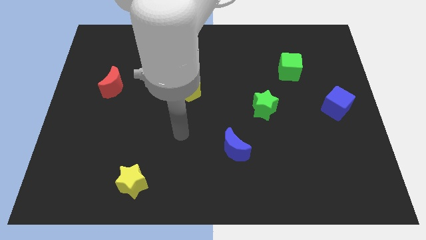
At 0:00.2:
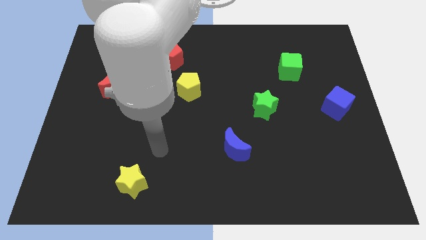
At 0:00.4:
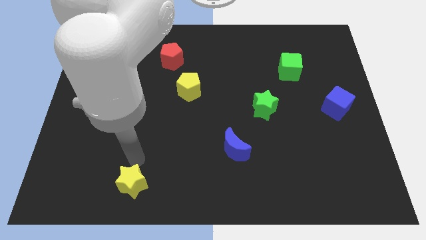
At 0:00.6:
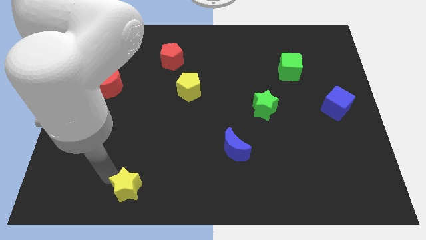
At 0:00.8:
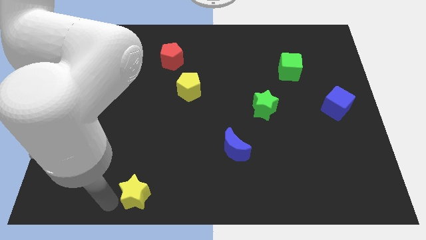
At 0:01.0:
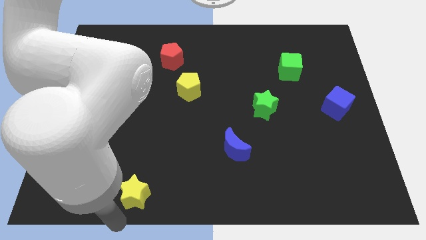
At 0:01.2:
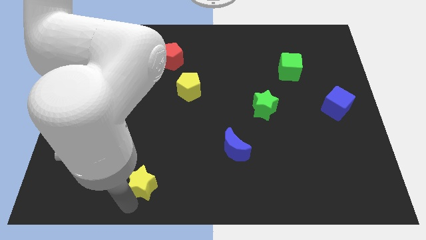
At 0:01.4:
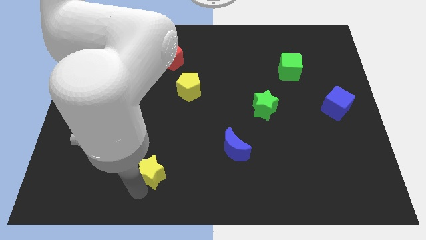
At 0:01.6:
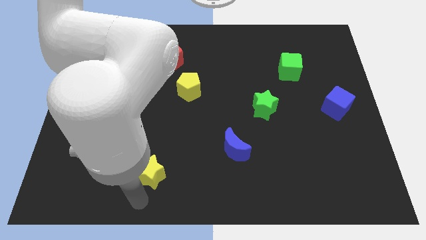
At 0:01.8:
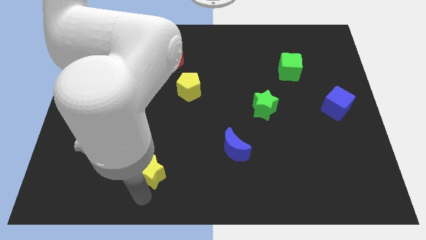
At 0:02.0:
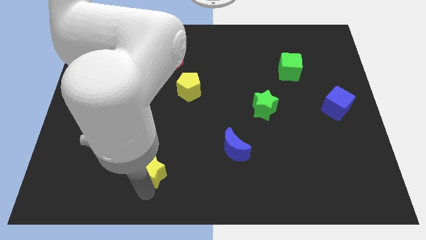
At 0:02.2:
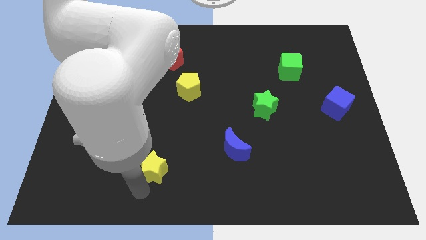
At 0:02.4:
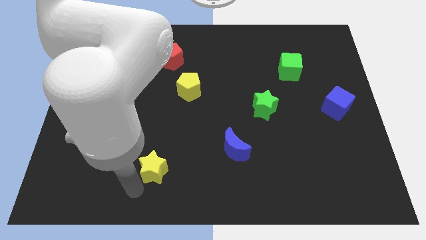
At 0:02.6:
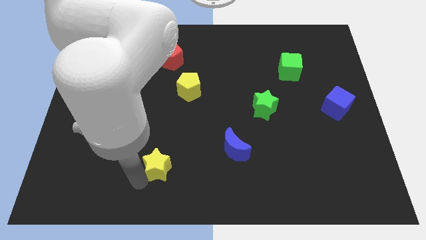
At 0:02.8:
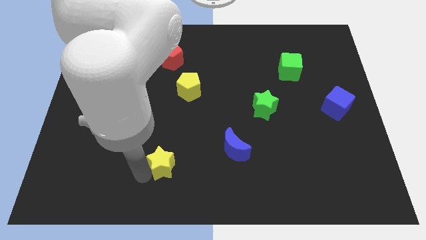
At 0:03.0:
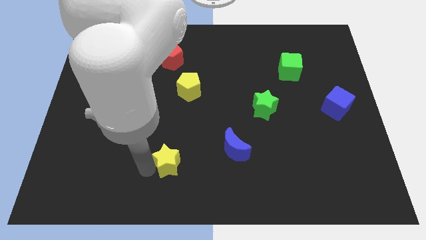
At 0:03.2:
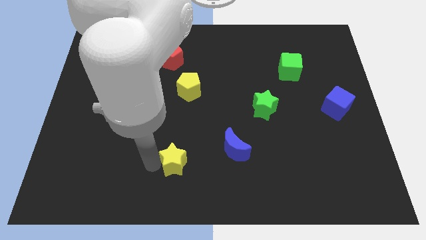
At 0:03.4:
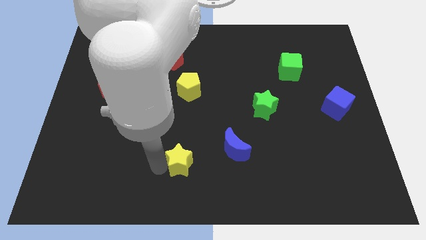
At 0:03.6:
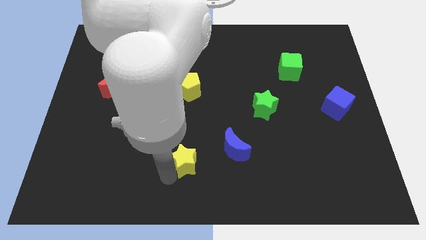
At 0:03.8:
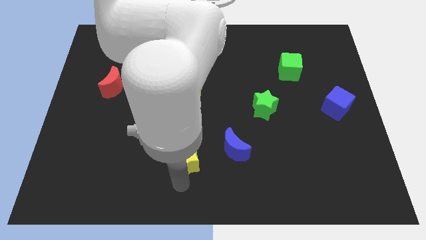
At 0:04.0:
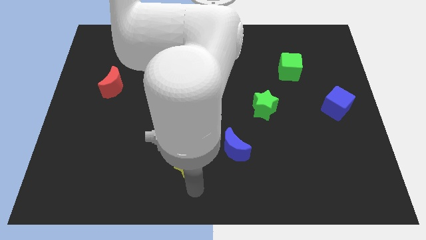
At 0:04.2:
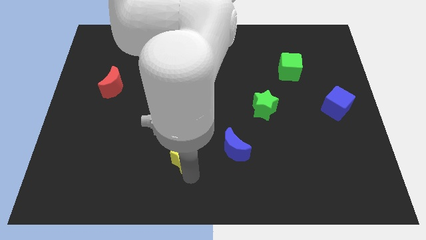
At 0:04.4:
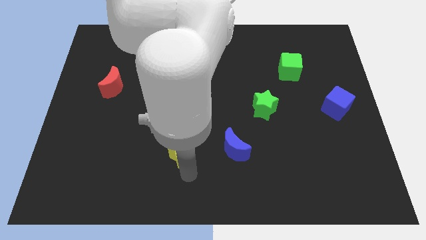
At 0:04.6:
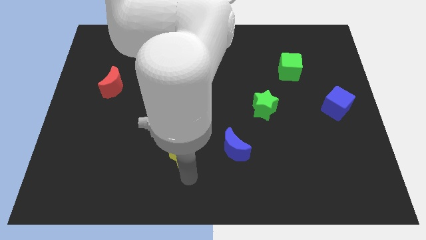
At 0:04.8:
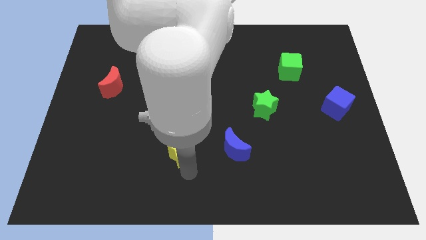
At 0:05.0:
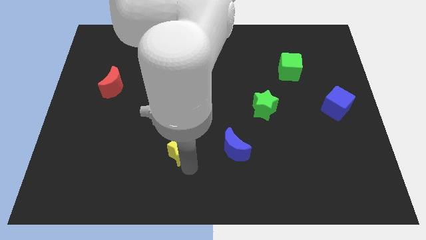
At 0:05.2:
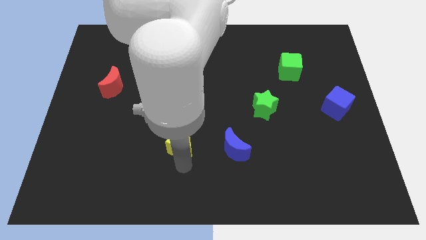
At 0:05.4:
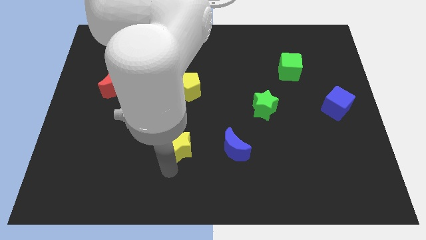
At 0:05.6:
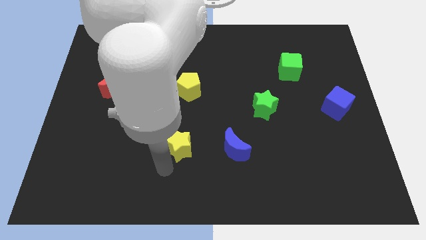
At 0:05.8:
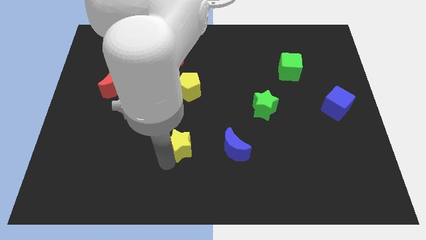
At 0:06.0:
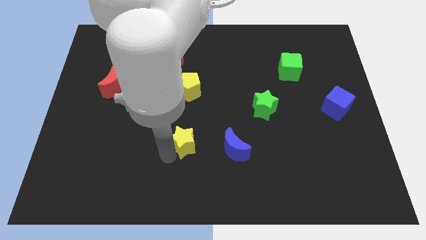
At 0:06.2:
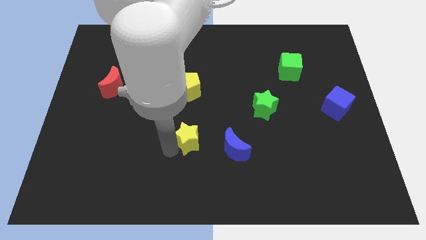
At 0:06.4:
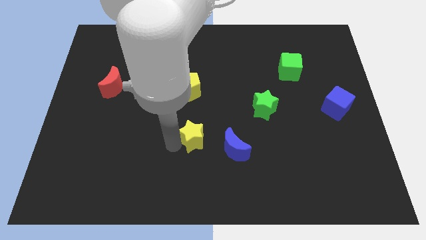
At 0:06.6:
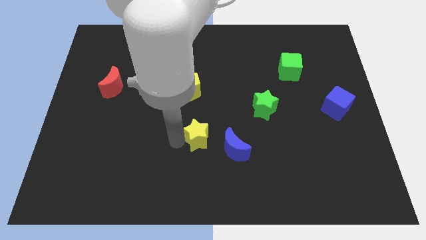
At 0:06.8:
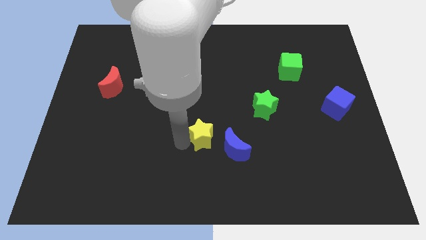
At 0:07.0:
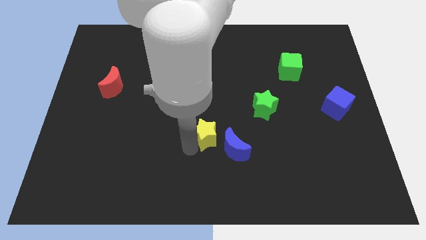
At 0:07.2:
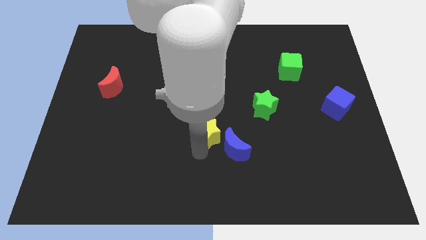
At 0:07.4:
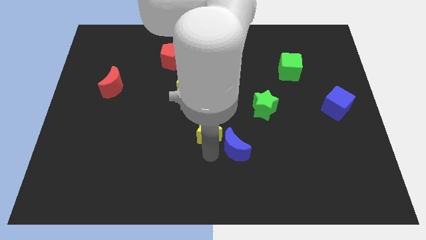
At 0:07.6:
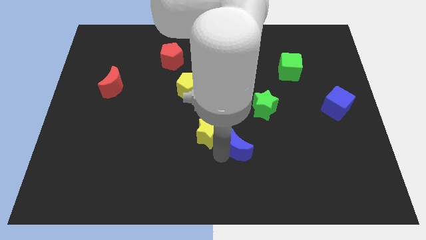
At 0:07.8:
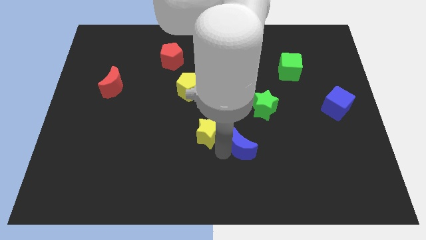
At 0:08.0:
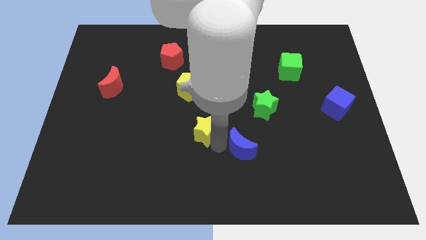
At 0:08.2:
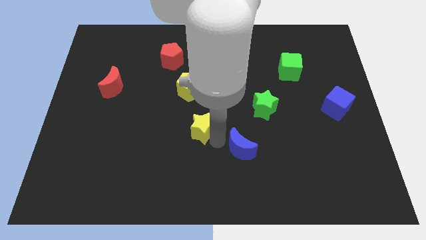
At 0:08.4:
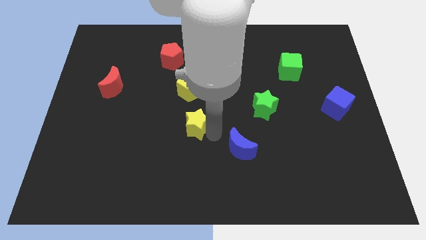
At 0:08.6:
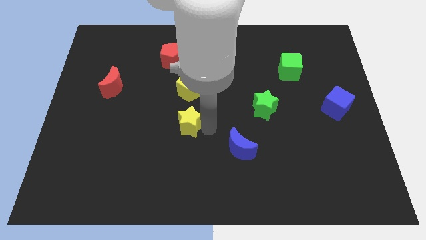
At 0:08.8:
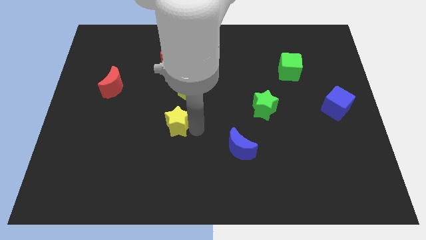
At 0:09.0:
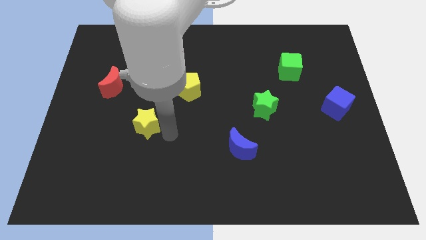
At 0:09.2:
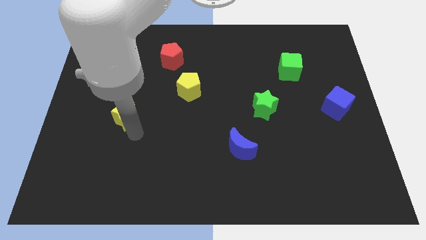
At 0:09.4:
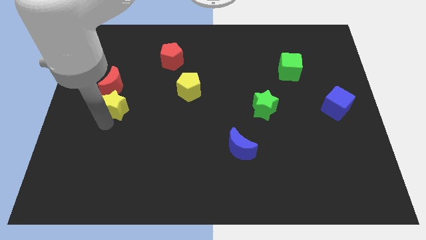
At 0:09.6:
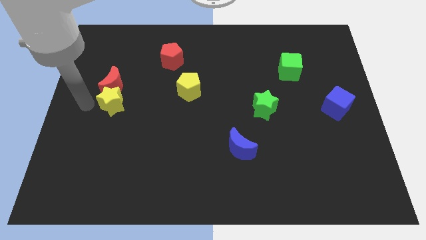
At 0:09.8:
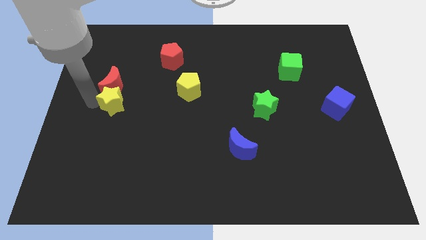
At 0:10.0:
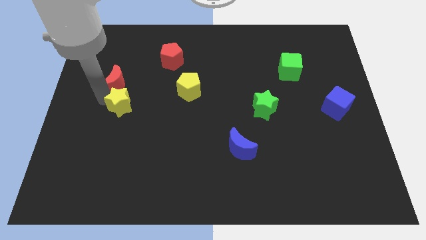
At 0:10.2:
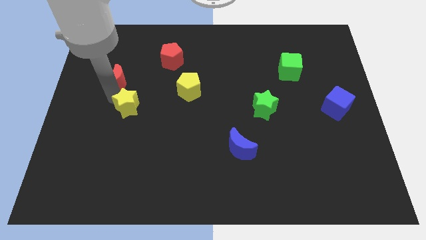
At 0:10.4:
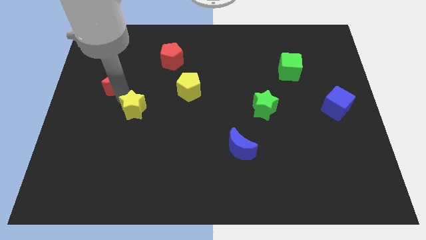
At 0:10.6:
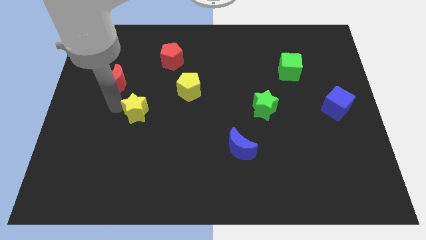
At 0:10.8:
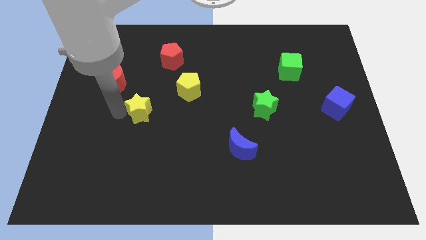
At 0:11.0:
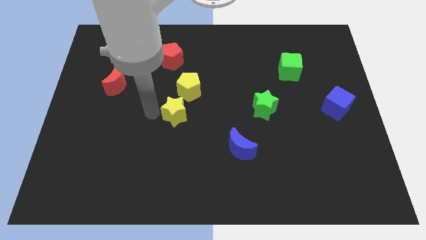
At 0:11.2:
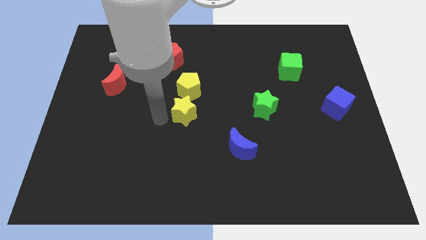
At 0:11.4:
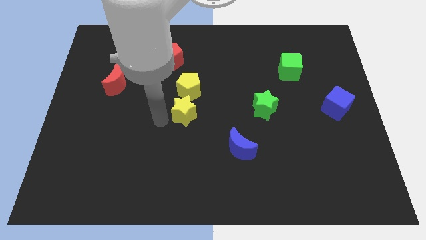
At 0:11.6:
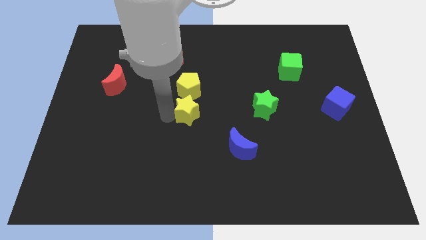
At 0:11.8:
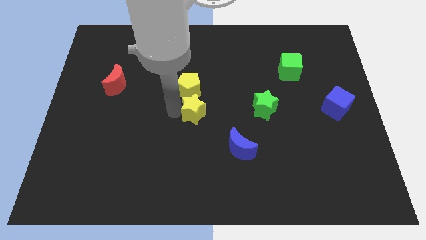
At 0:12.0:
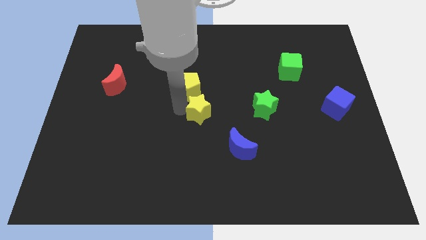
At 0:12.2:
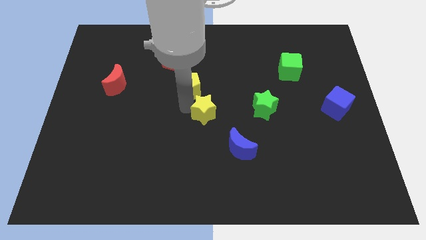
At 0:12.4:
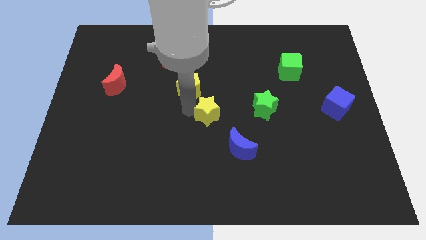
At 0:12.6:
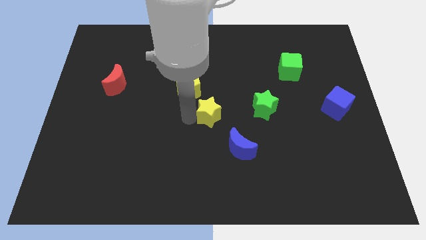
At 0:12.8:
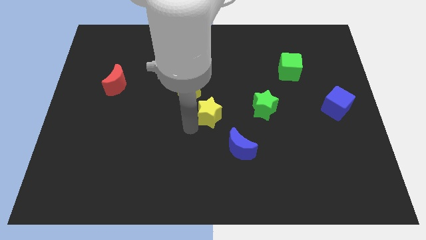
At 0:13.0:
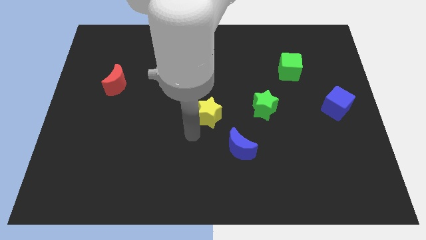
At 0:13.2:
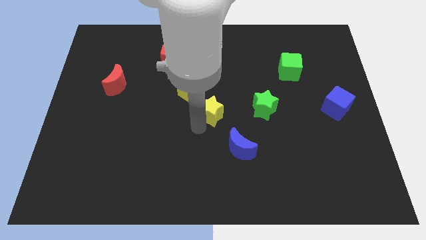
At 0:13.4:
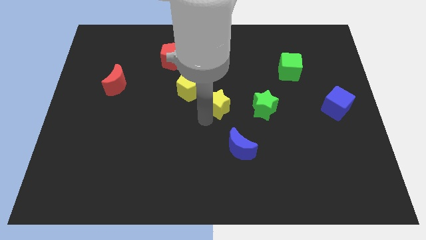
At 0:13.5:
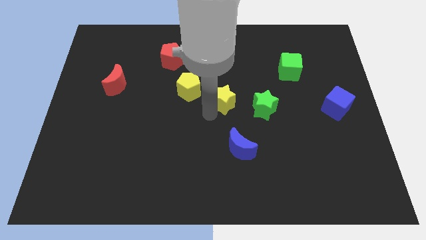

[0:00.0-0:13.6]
move the yellow star just right of the yellow pentagon

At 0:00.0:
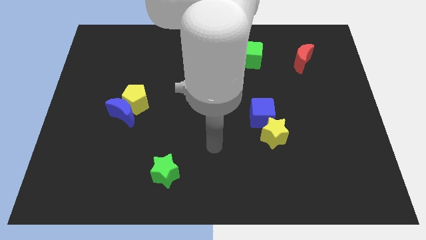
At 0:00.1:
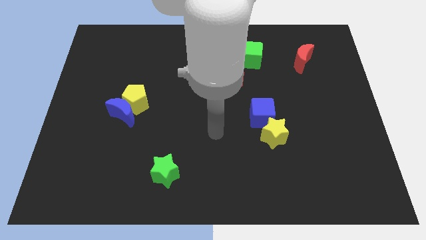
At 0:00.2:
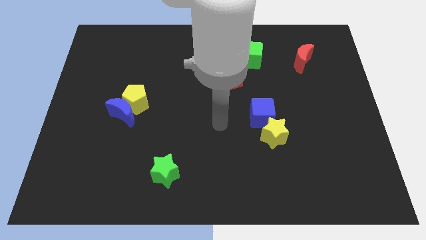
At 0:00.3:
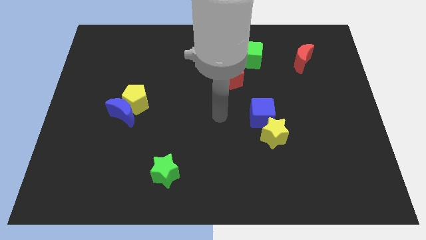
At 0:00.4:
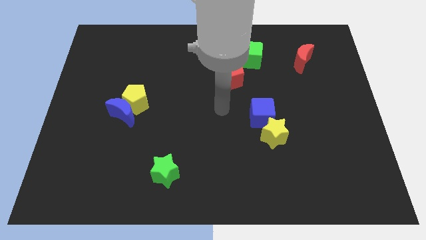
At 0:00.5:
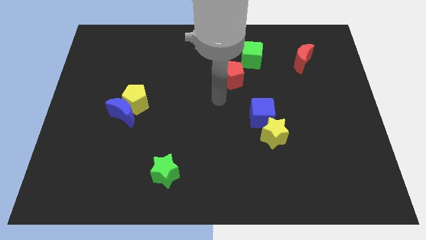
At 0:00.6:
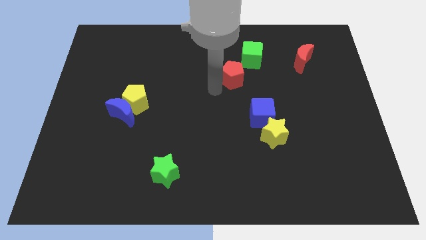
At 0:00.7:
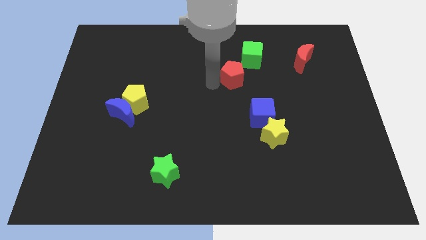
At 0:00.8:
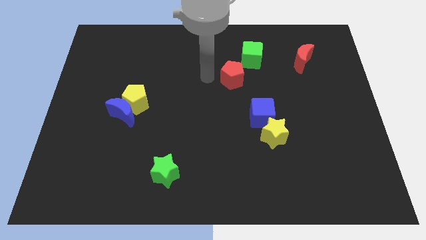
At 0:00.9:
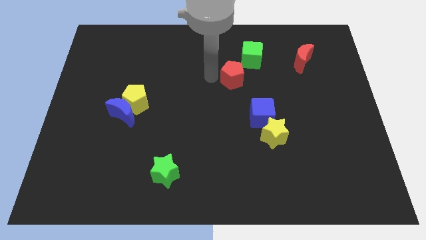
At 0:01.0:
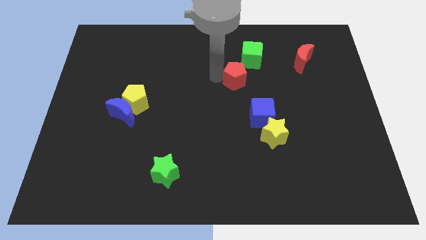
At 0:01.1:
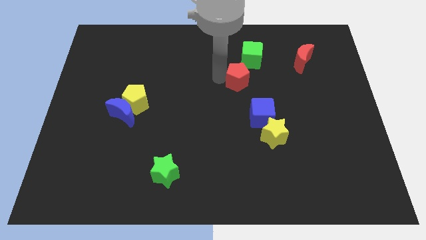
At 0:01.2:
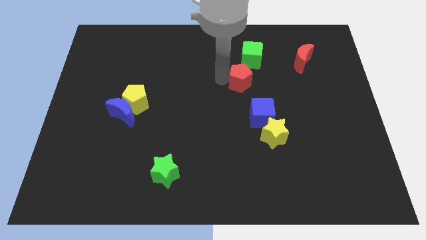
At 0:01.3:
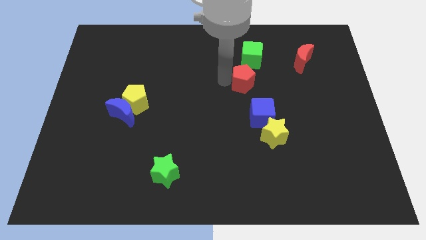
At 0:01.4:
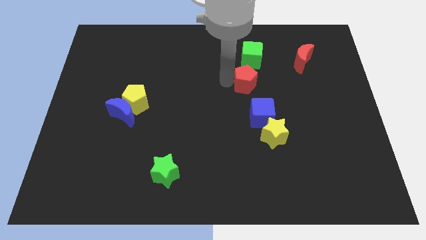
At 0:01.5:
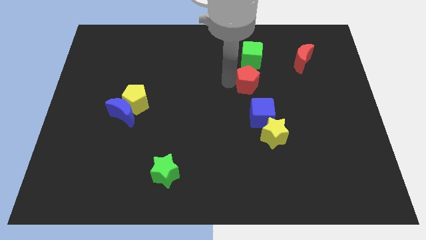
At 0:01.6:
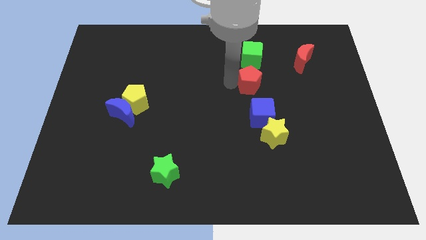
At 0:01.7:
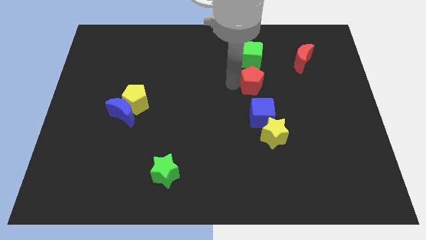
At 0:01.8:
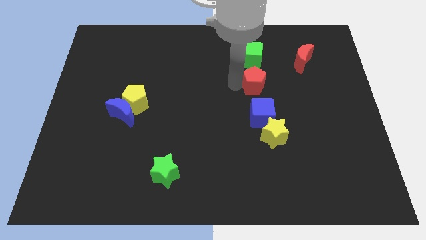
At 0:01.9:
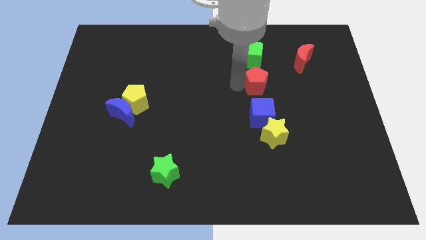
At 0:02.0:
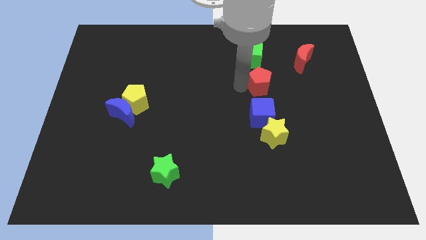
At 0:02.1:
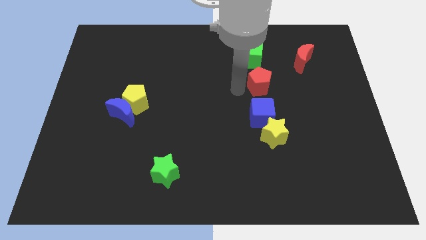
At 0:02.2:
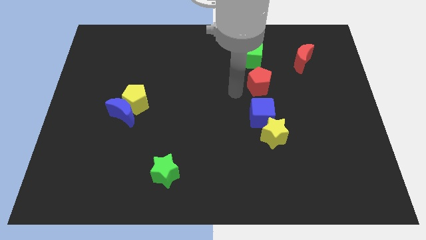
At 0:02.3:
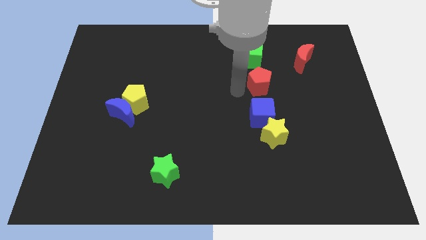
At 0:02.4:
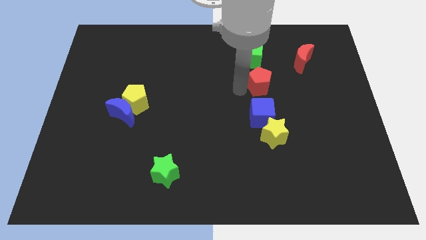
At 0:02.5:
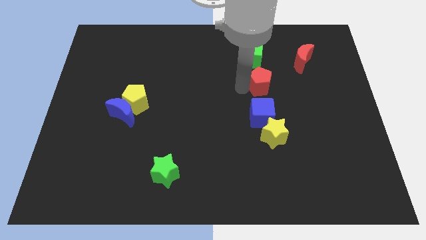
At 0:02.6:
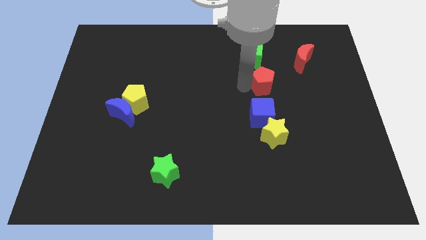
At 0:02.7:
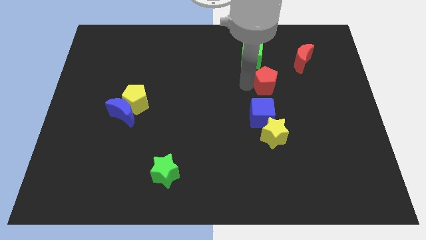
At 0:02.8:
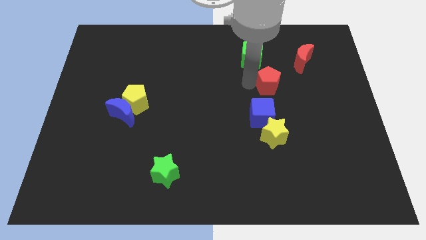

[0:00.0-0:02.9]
push the red pentagon to the bottom left side of the red moon
